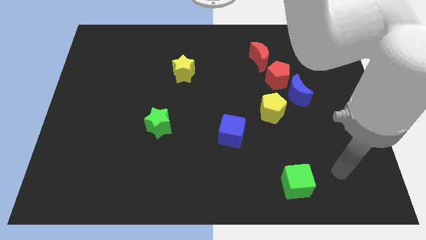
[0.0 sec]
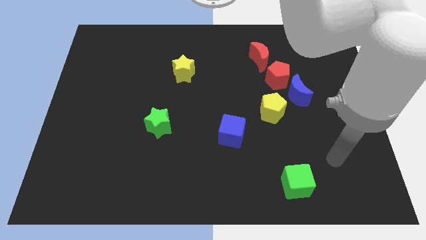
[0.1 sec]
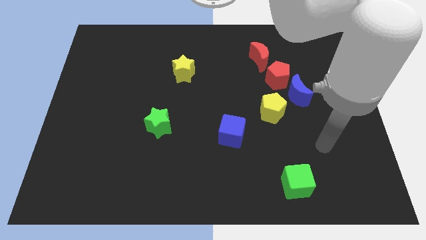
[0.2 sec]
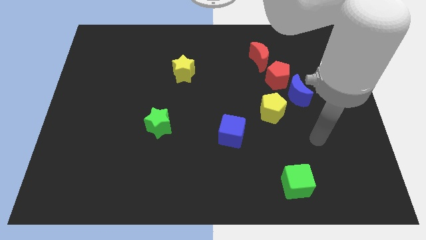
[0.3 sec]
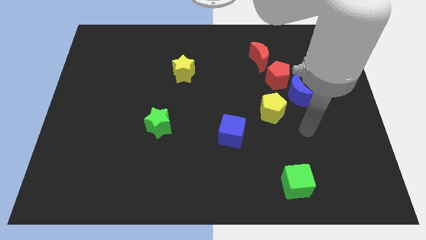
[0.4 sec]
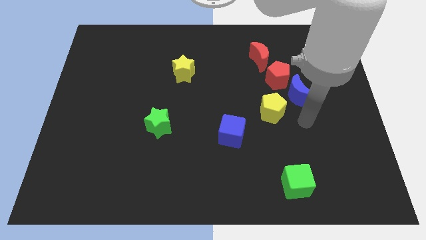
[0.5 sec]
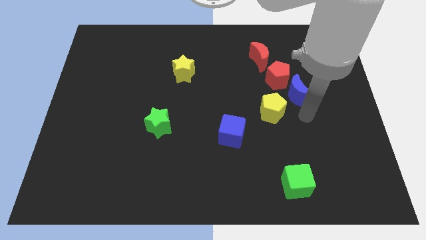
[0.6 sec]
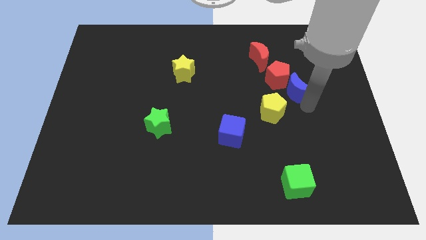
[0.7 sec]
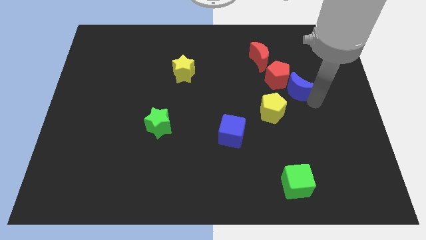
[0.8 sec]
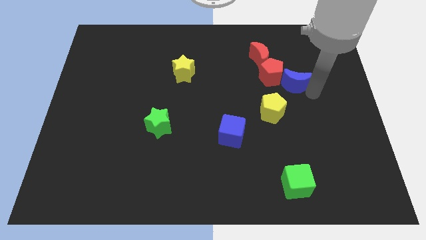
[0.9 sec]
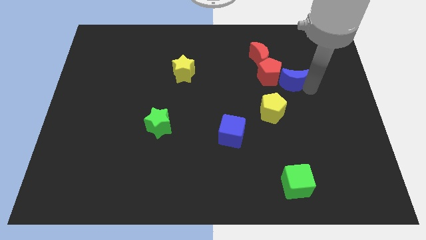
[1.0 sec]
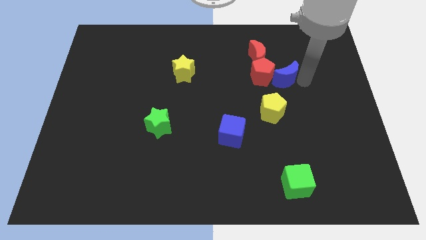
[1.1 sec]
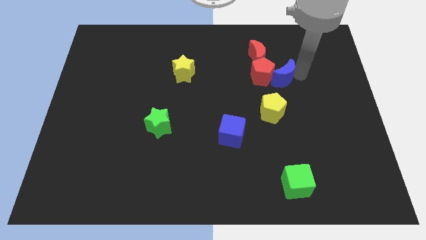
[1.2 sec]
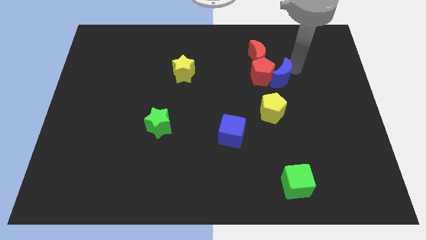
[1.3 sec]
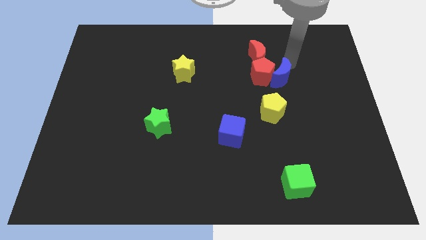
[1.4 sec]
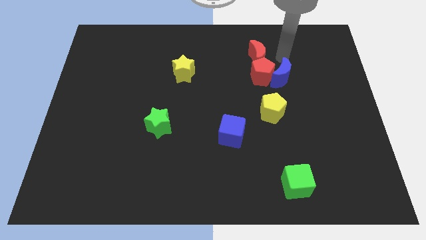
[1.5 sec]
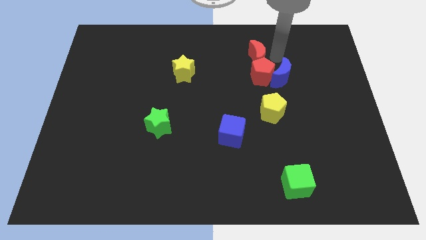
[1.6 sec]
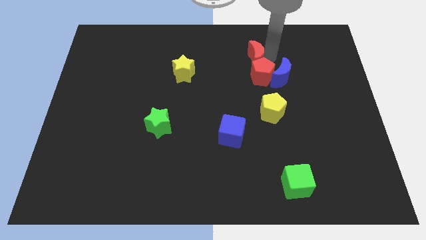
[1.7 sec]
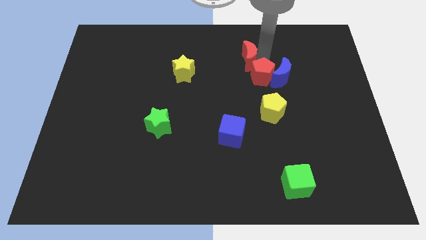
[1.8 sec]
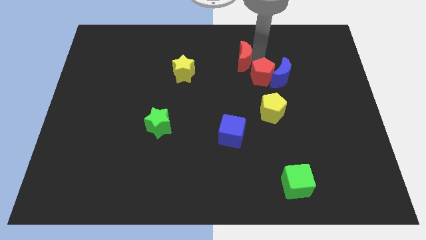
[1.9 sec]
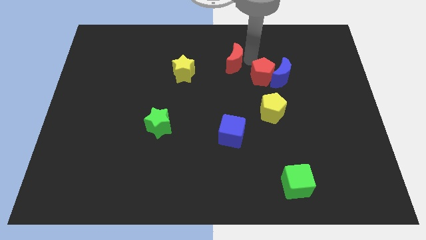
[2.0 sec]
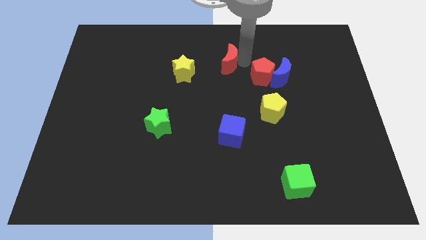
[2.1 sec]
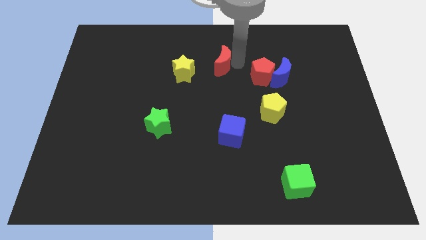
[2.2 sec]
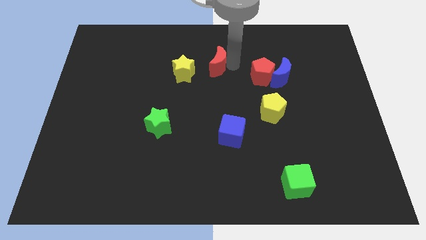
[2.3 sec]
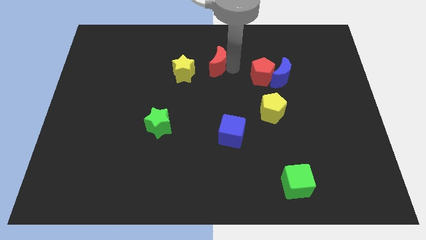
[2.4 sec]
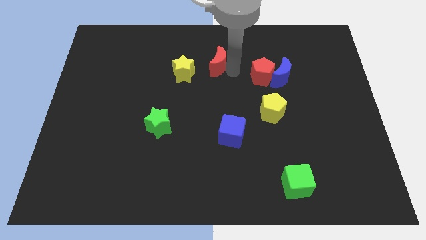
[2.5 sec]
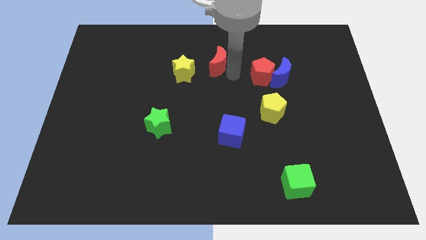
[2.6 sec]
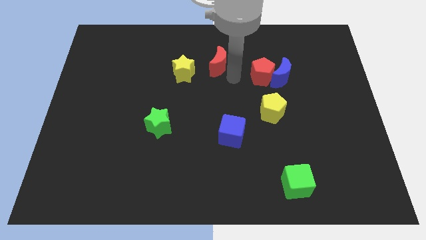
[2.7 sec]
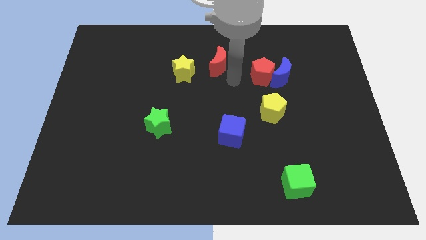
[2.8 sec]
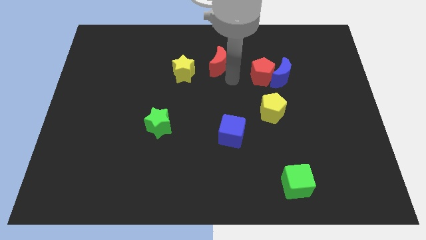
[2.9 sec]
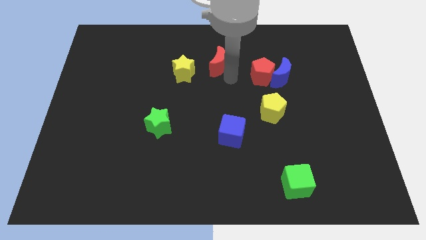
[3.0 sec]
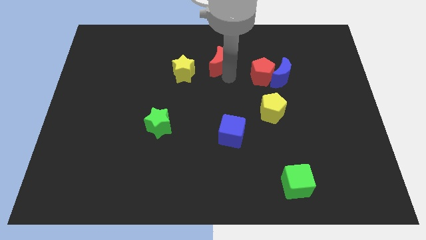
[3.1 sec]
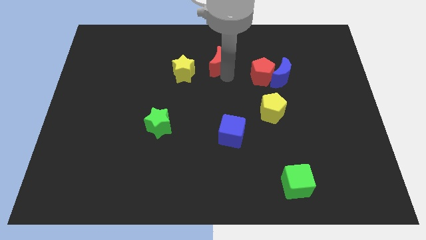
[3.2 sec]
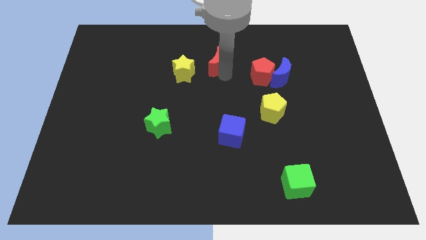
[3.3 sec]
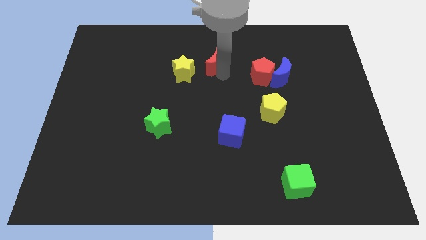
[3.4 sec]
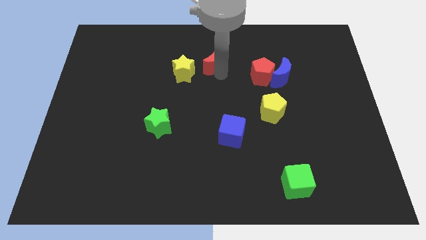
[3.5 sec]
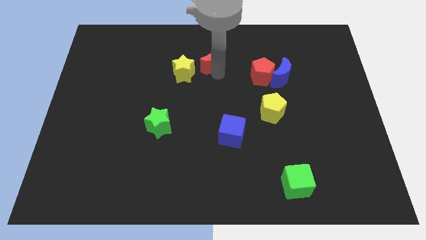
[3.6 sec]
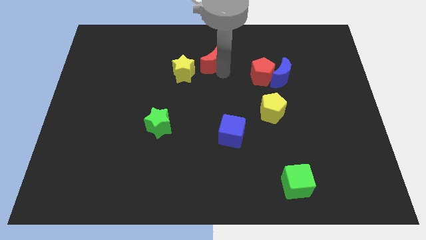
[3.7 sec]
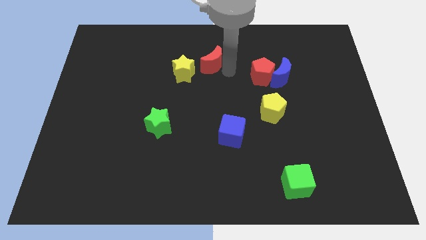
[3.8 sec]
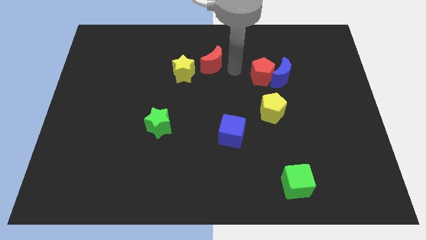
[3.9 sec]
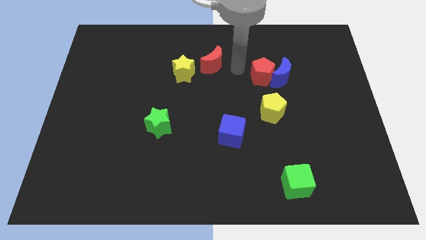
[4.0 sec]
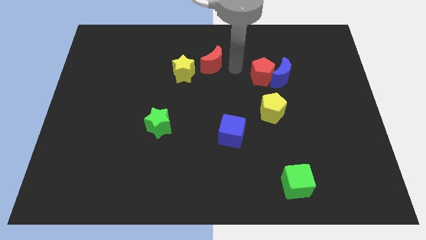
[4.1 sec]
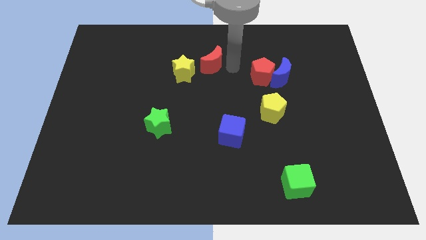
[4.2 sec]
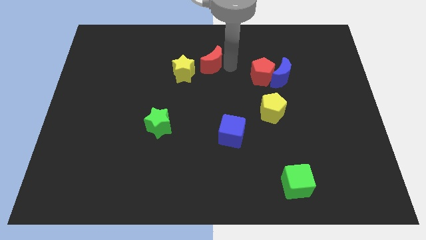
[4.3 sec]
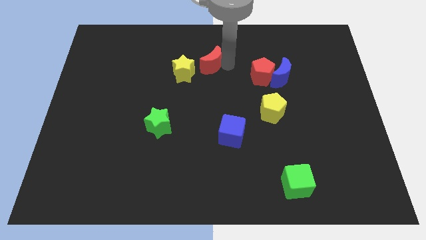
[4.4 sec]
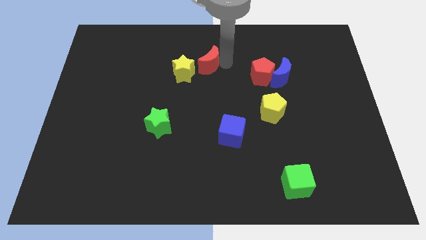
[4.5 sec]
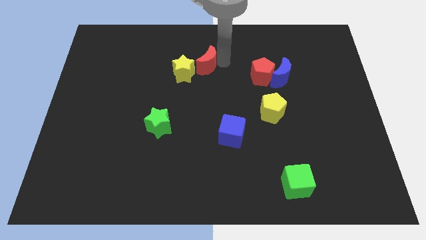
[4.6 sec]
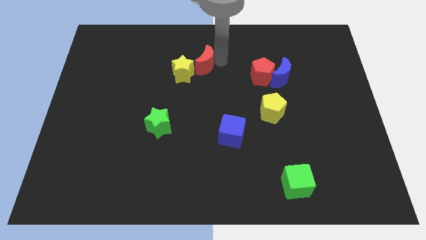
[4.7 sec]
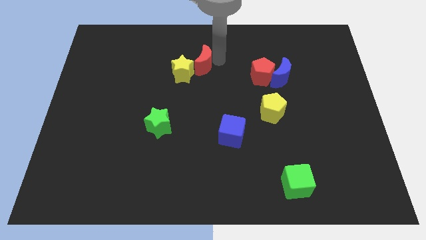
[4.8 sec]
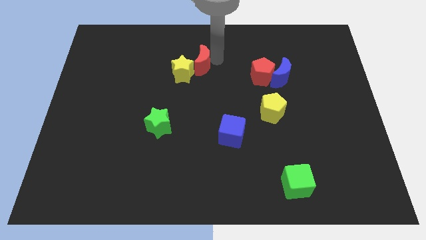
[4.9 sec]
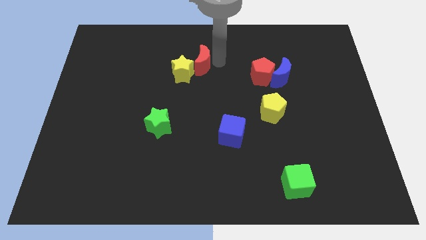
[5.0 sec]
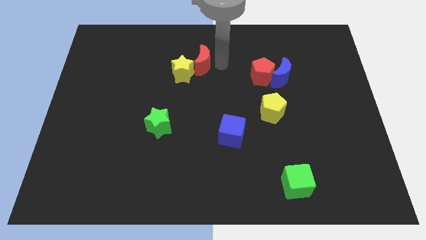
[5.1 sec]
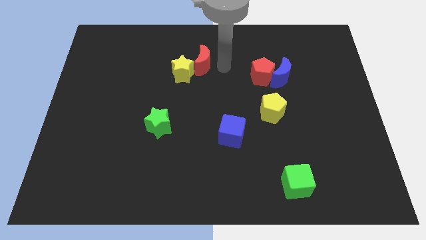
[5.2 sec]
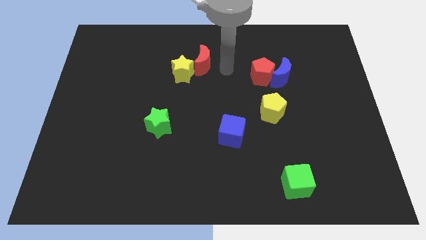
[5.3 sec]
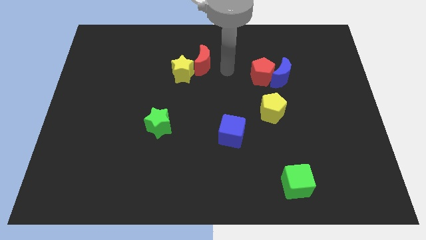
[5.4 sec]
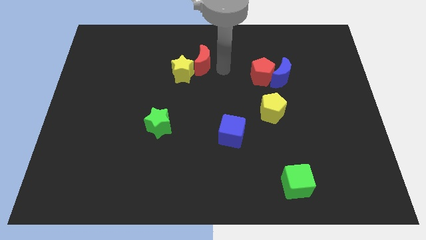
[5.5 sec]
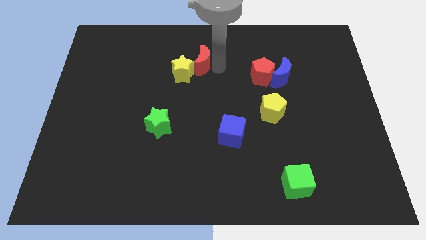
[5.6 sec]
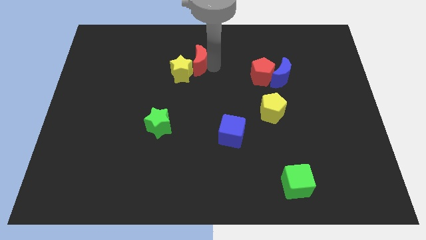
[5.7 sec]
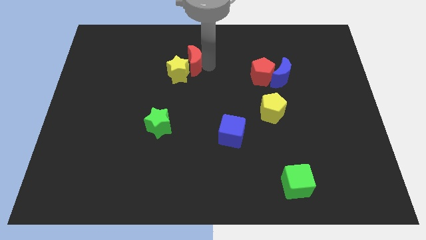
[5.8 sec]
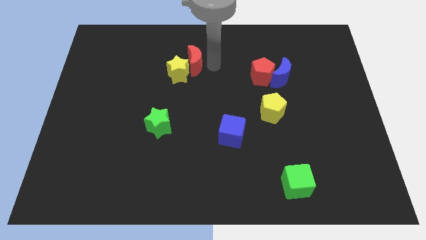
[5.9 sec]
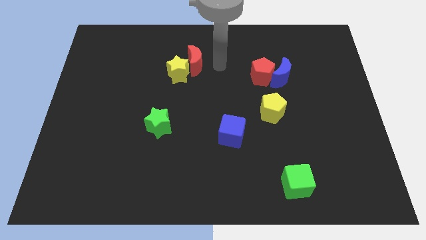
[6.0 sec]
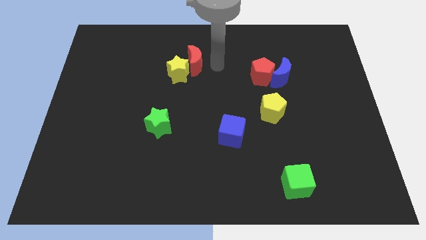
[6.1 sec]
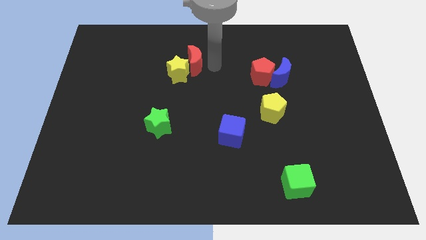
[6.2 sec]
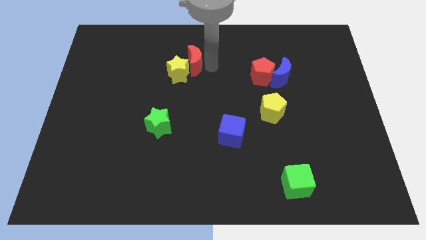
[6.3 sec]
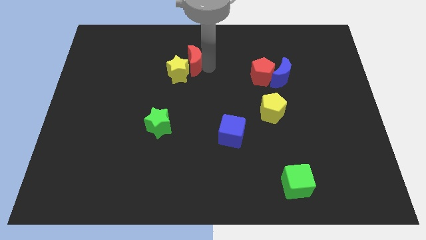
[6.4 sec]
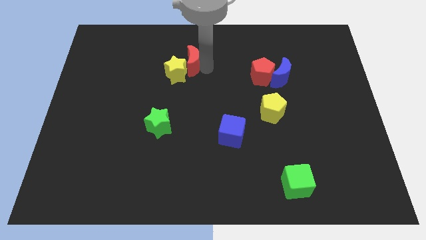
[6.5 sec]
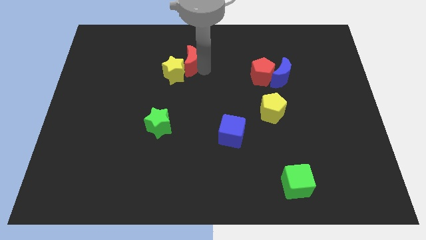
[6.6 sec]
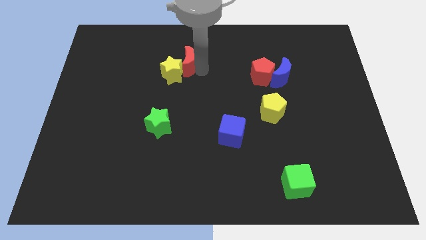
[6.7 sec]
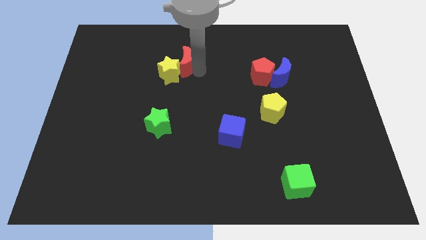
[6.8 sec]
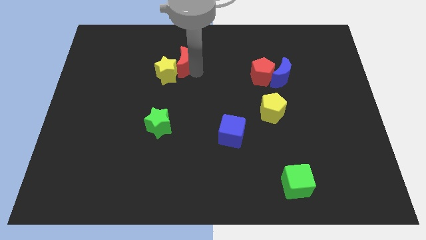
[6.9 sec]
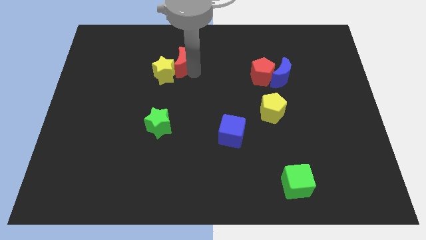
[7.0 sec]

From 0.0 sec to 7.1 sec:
push the red moon left

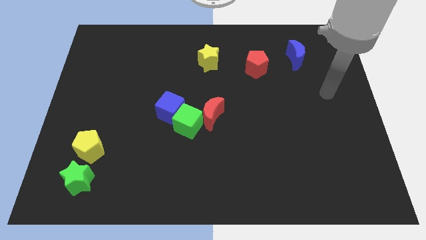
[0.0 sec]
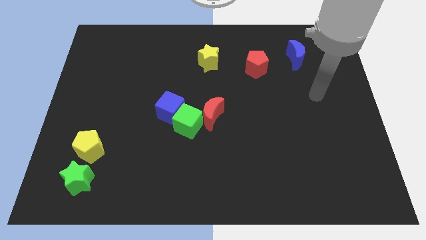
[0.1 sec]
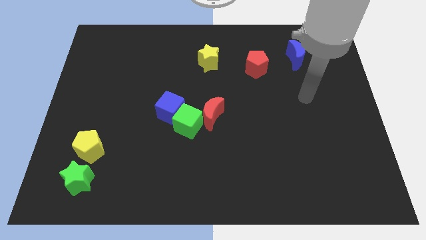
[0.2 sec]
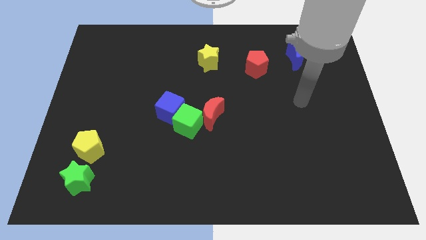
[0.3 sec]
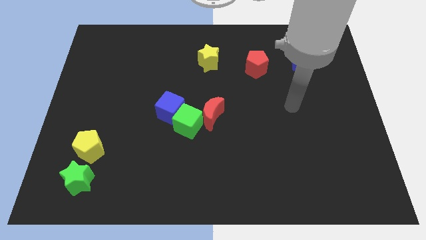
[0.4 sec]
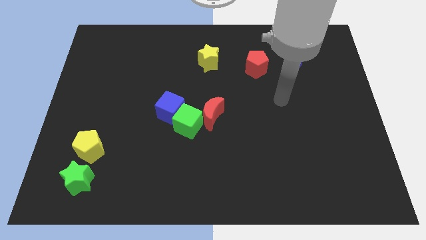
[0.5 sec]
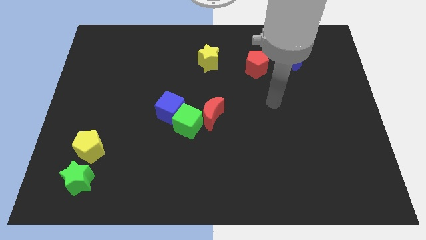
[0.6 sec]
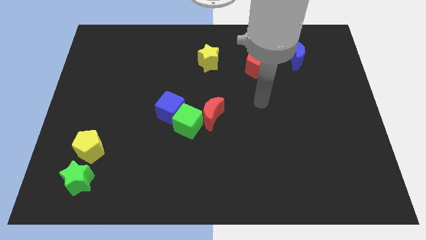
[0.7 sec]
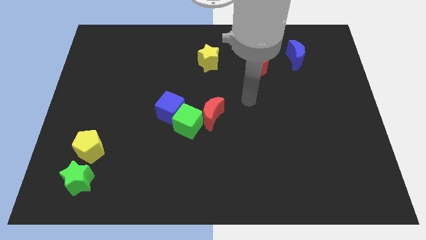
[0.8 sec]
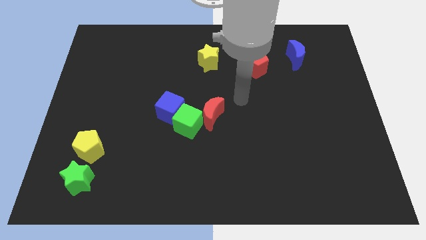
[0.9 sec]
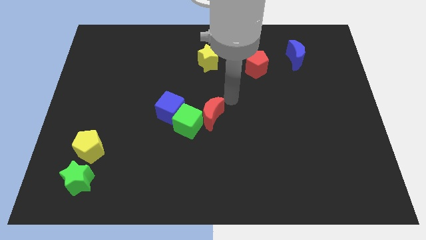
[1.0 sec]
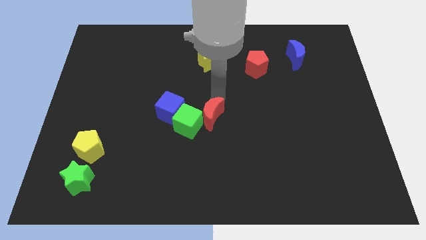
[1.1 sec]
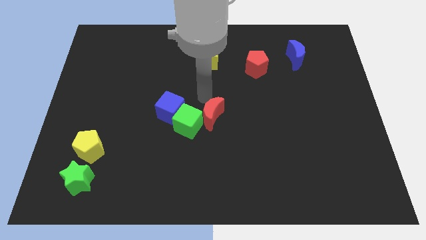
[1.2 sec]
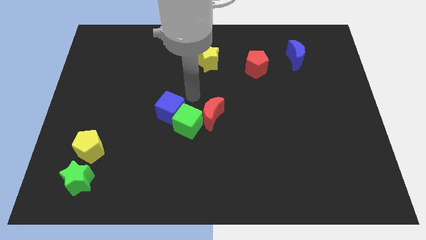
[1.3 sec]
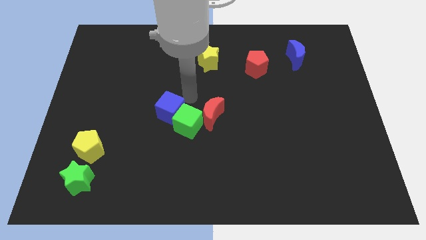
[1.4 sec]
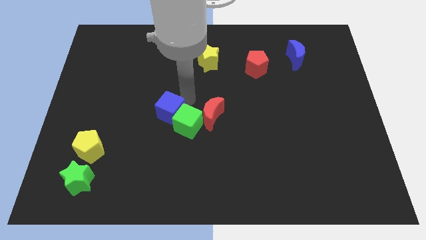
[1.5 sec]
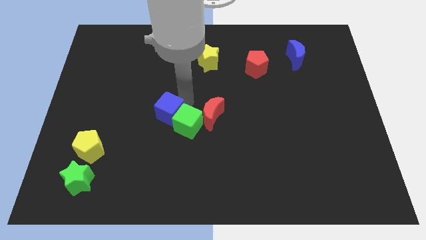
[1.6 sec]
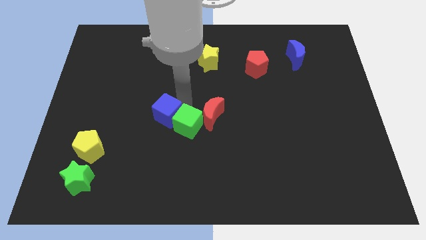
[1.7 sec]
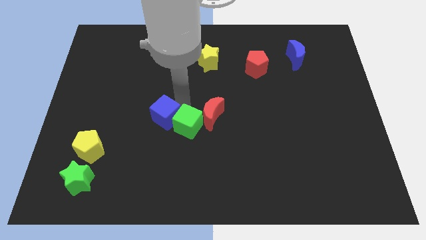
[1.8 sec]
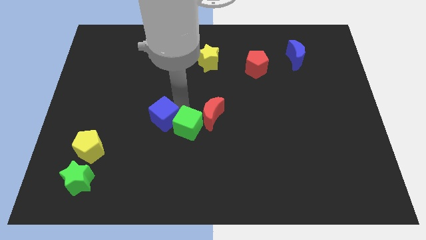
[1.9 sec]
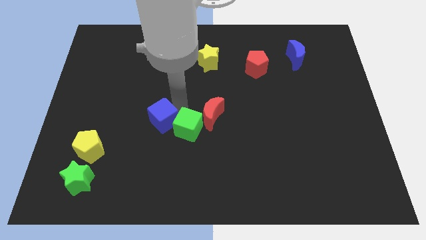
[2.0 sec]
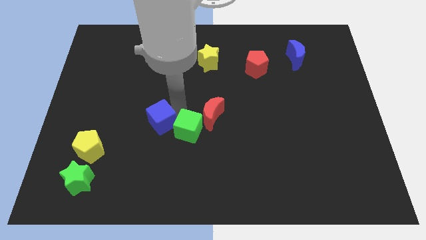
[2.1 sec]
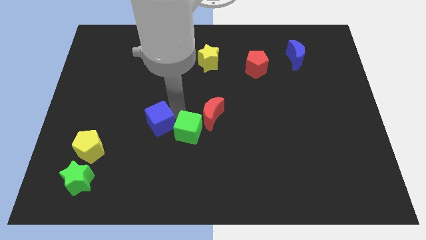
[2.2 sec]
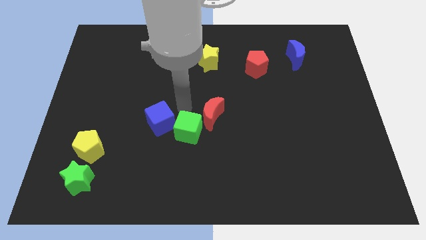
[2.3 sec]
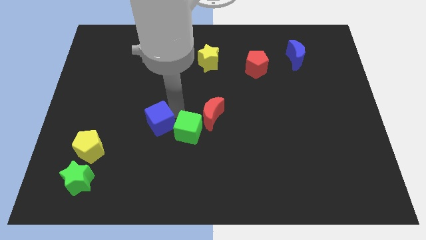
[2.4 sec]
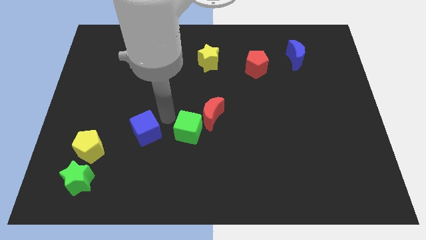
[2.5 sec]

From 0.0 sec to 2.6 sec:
slightly move the blue cube down and then to the left
